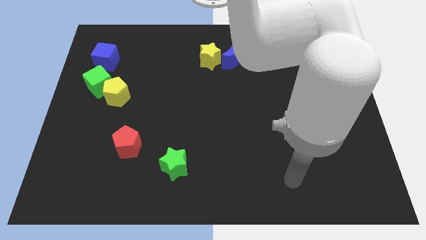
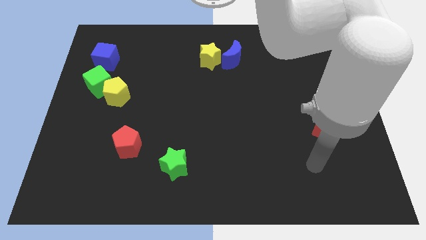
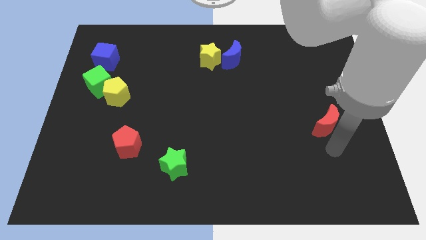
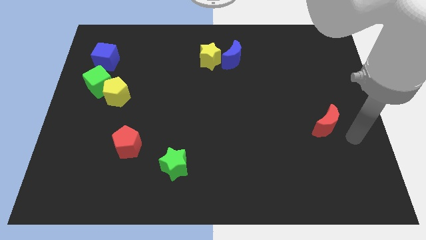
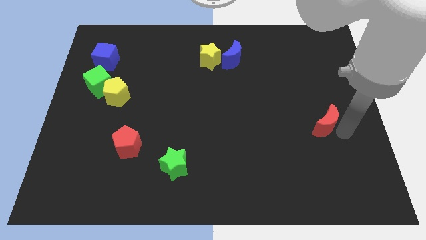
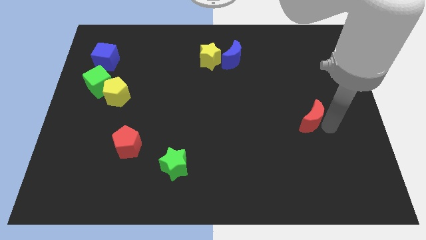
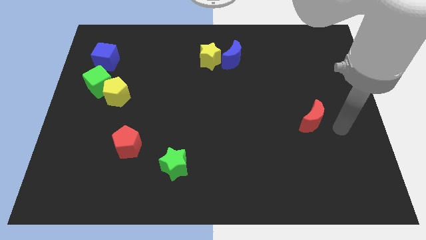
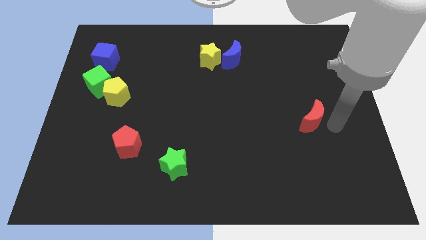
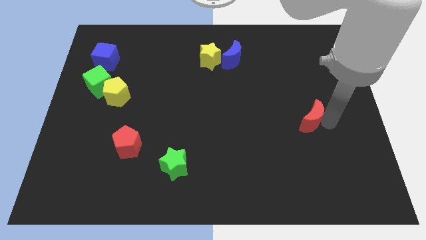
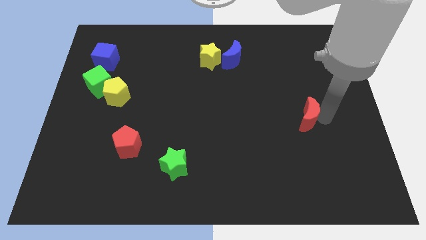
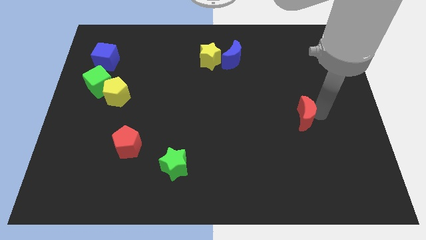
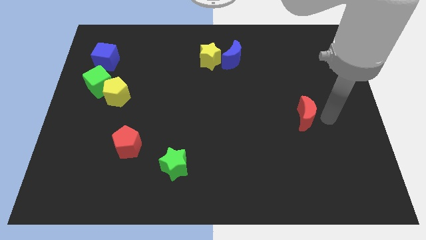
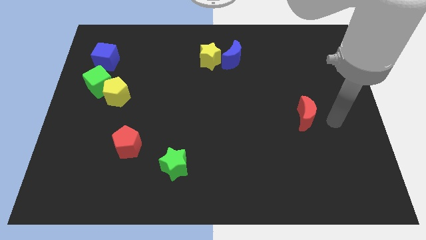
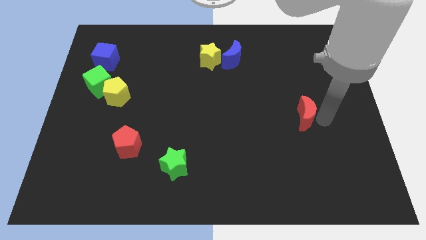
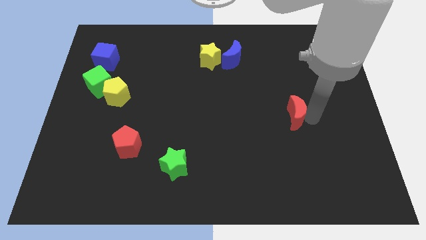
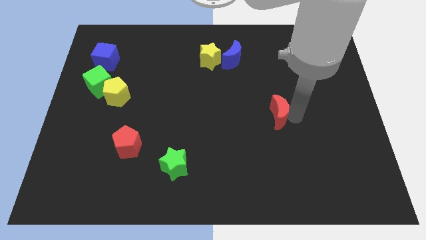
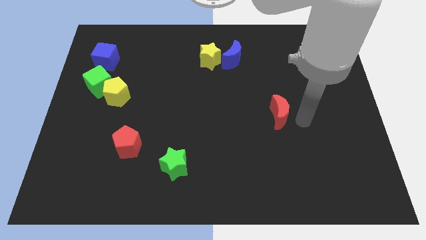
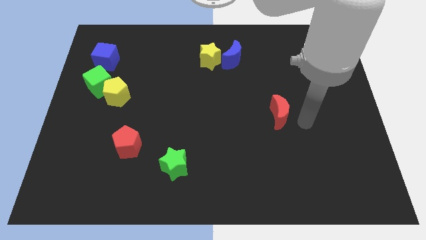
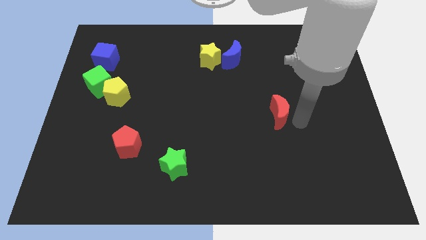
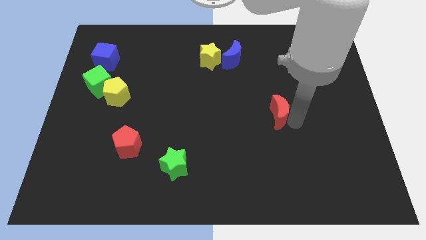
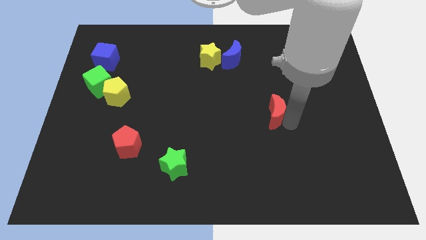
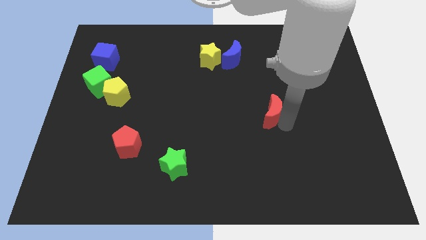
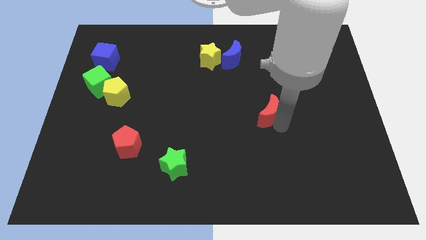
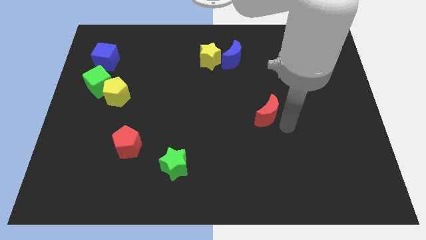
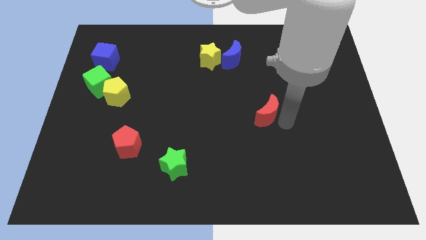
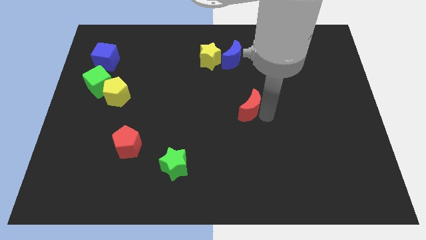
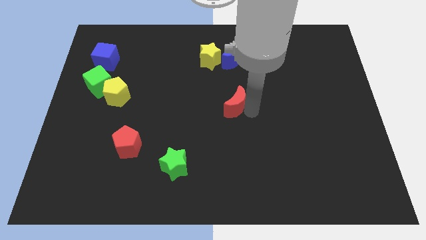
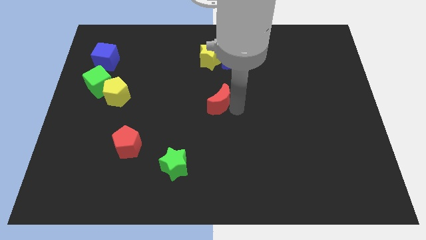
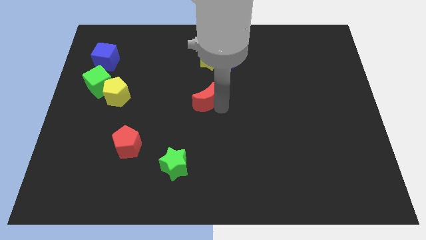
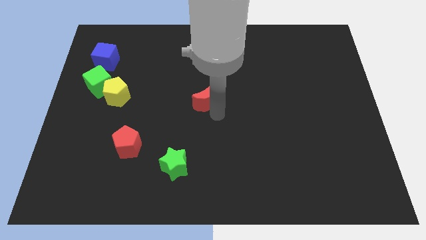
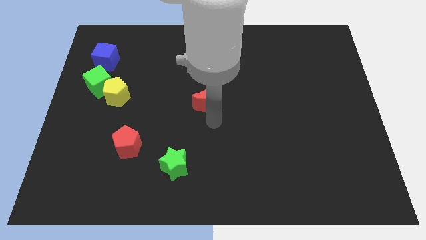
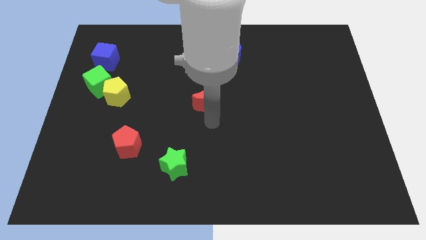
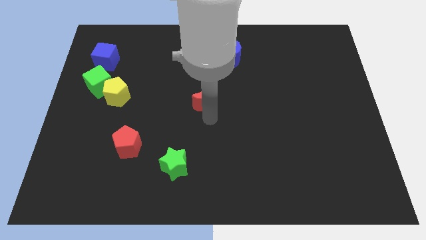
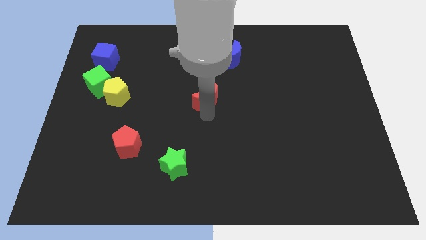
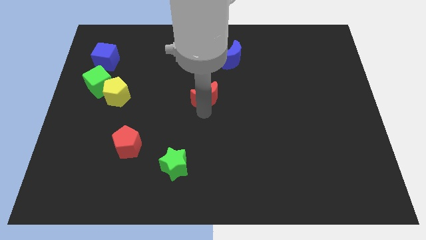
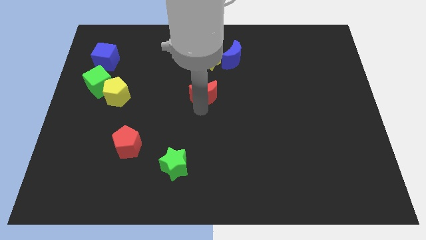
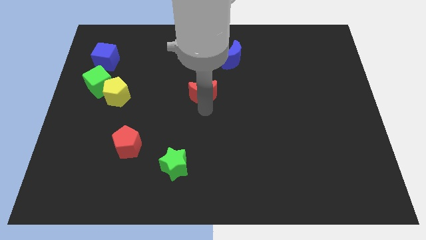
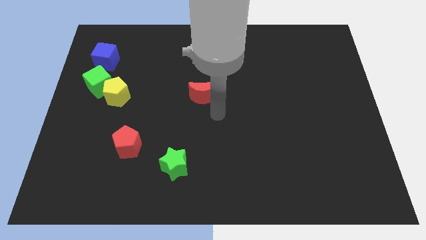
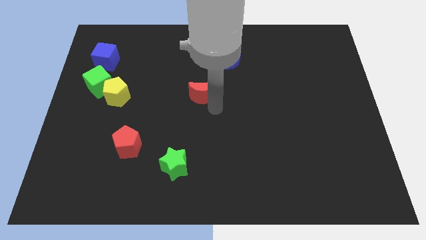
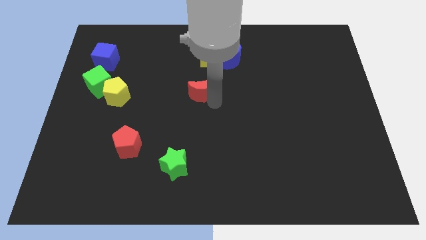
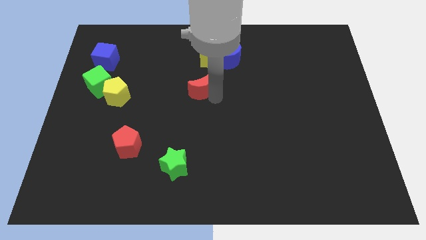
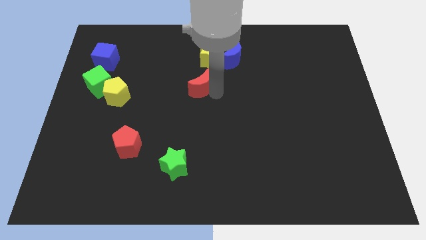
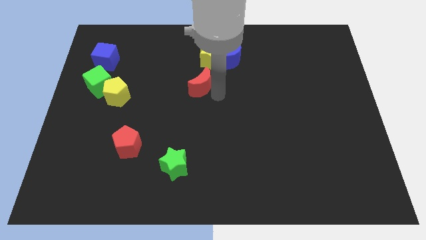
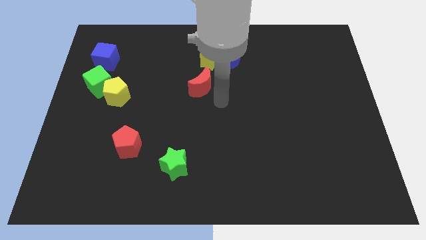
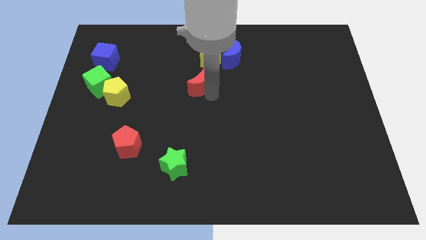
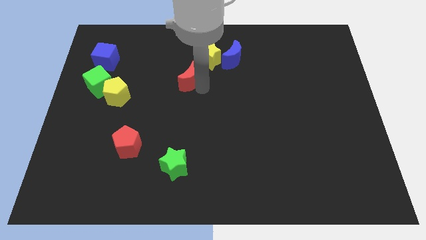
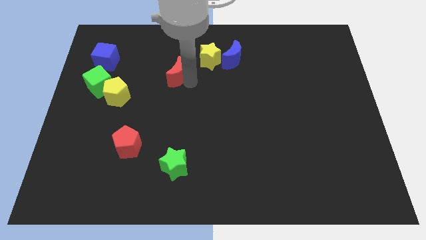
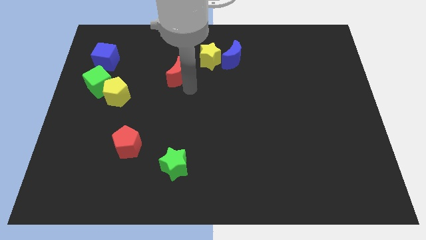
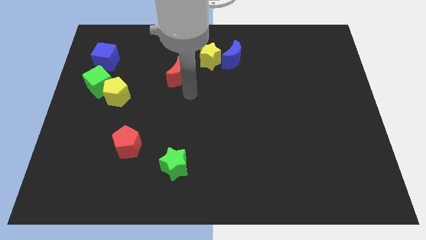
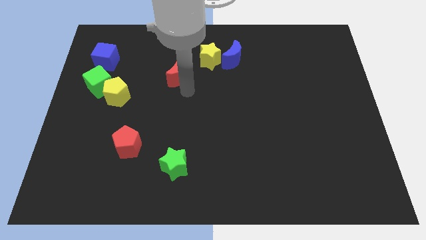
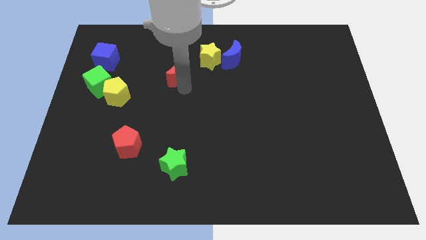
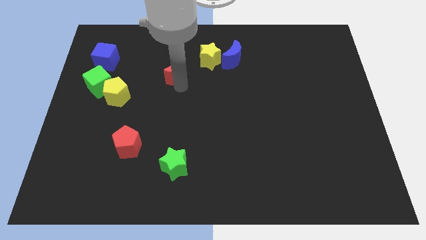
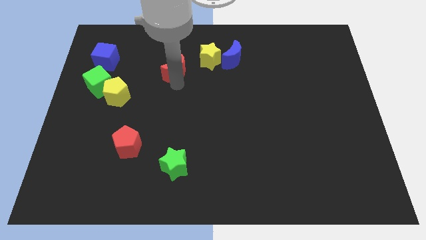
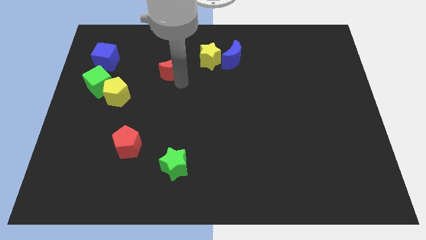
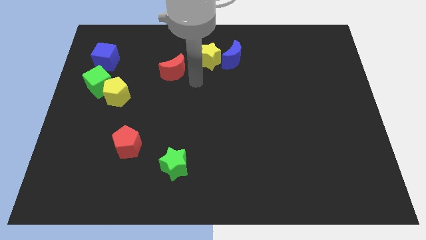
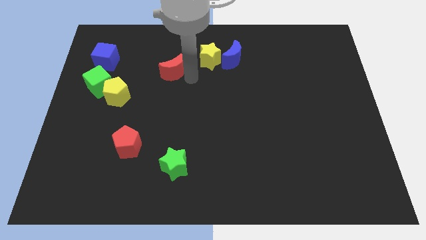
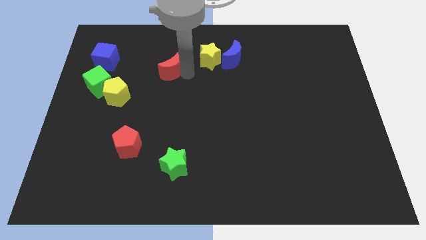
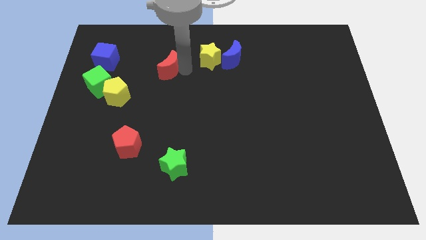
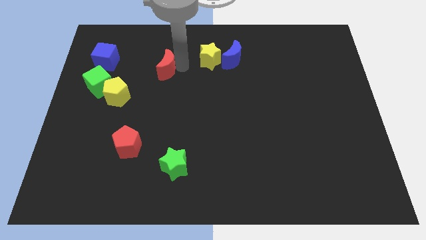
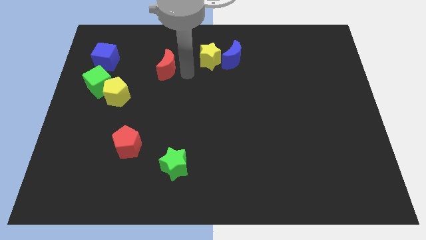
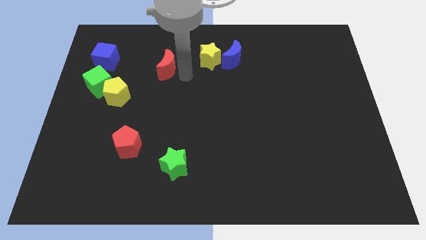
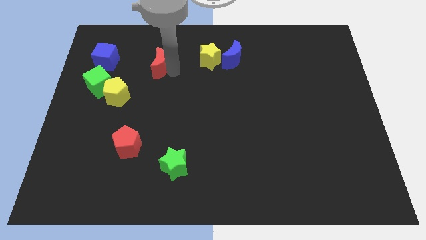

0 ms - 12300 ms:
put the red moon right of the blue cube

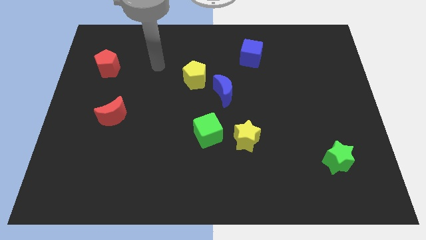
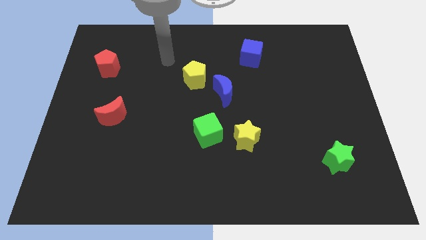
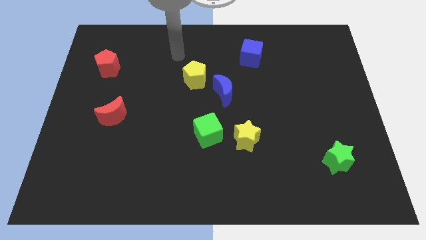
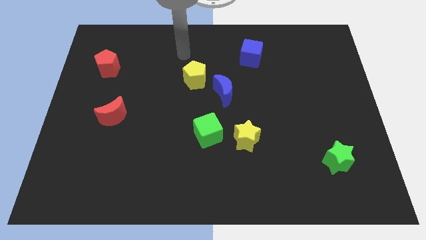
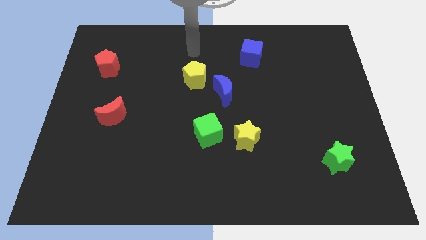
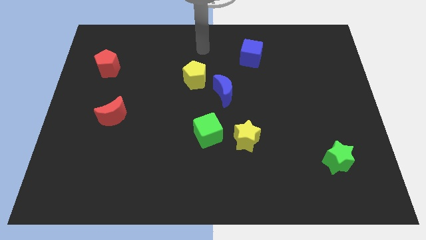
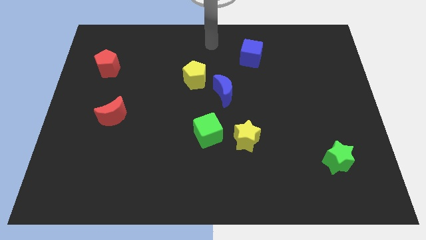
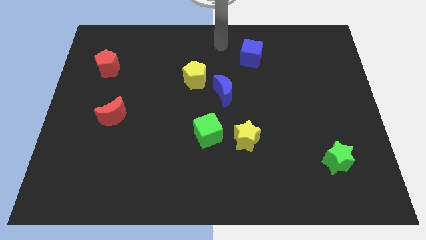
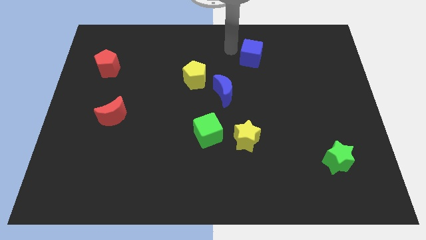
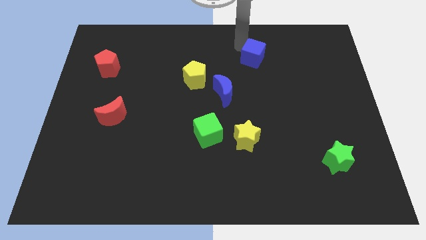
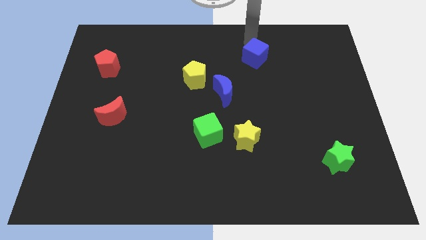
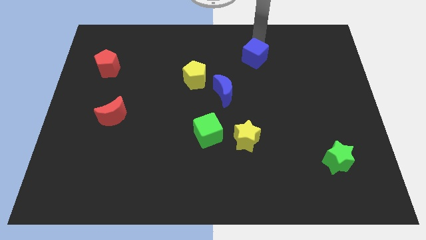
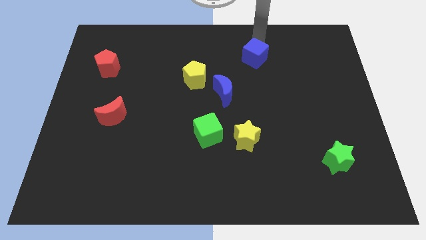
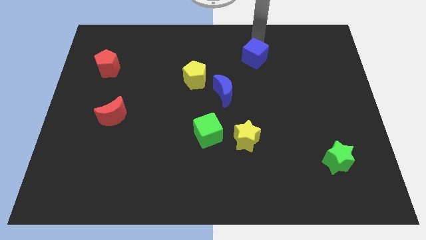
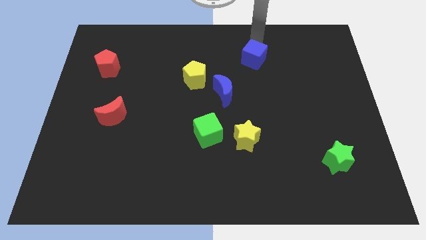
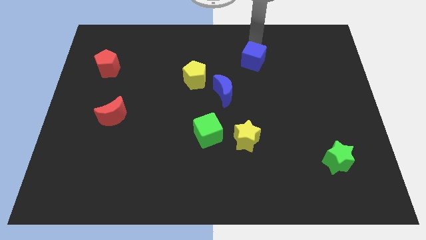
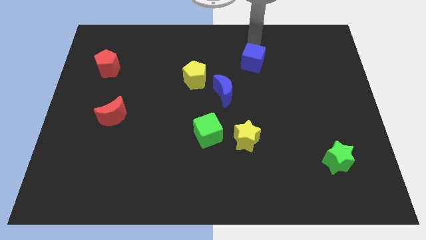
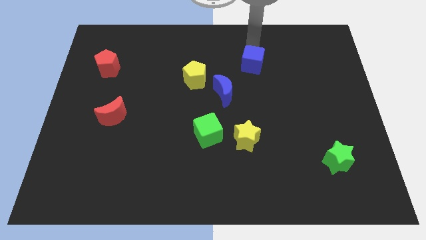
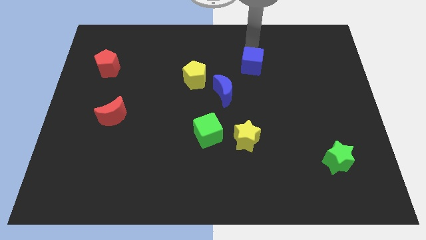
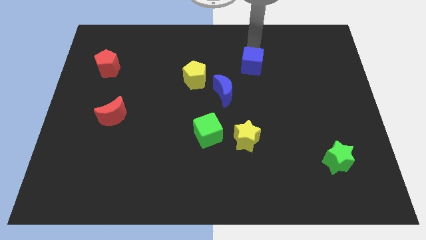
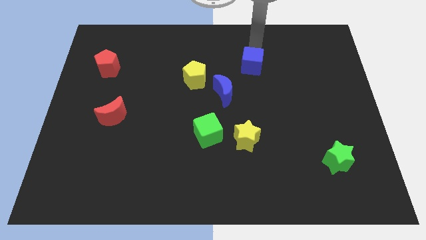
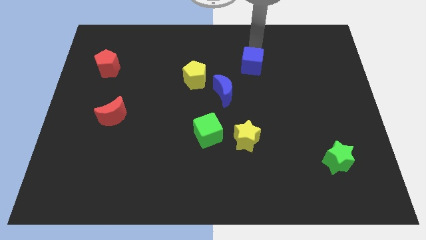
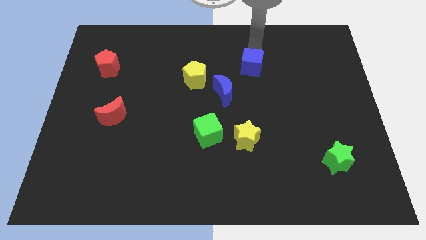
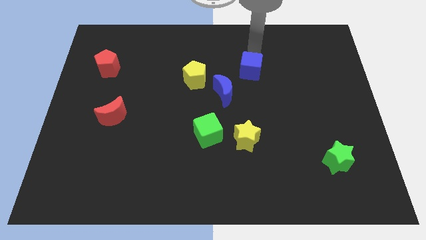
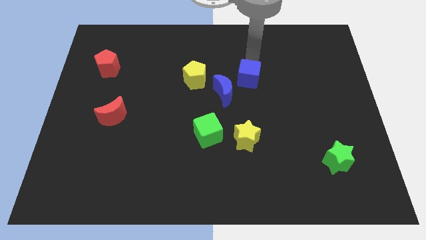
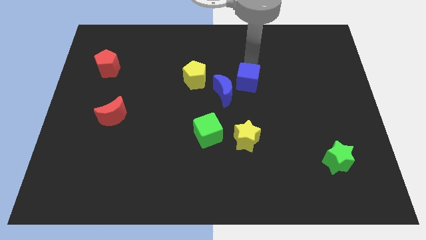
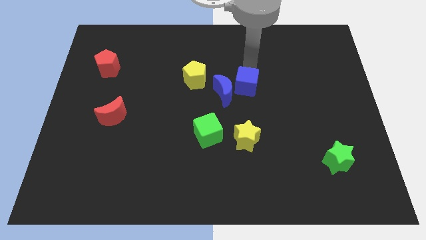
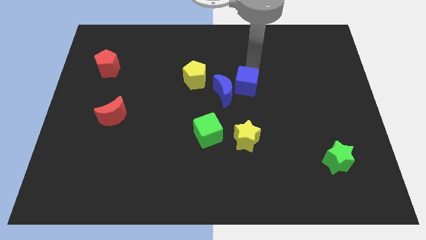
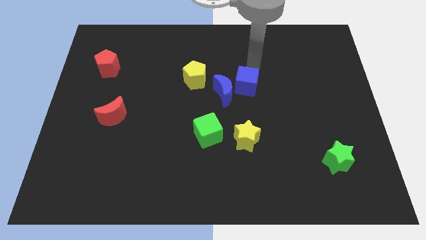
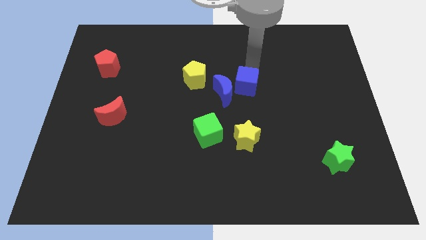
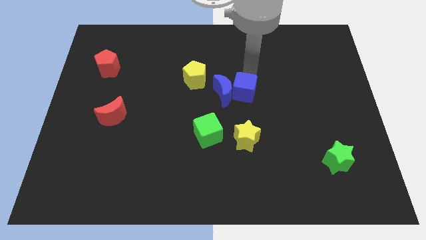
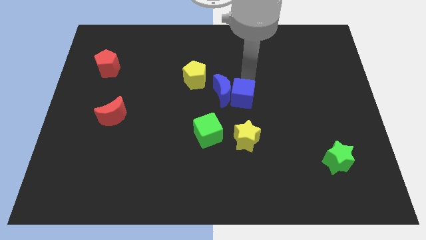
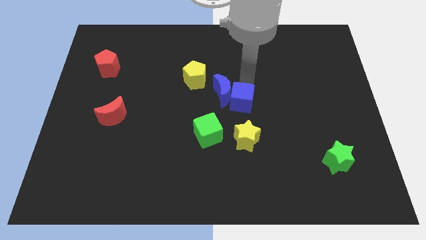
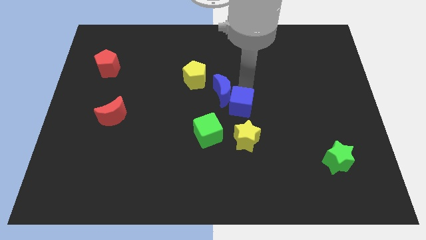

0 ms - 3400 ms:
push the blue cube to the bottom of the blue moon
